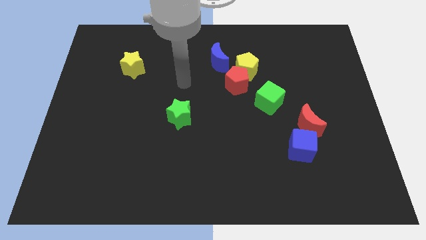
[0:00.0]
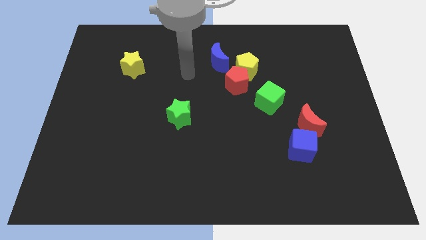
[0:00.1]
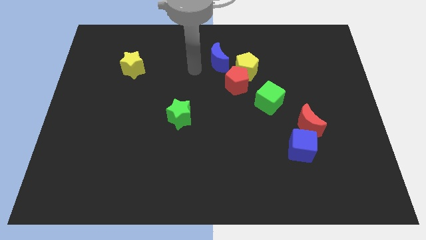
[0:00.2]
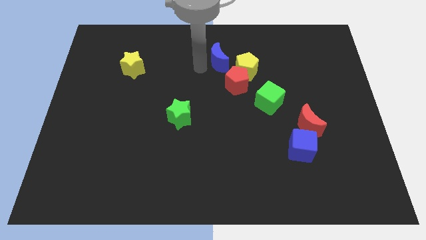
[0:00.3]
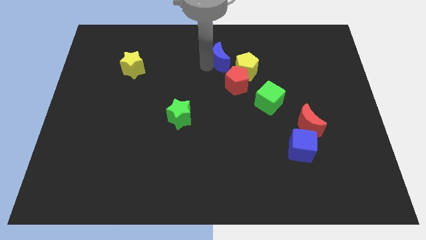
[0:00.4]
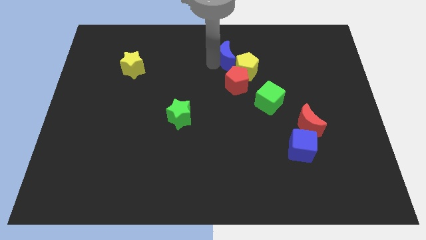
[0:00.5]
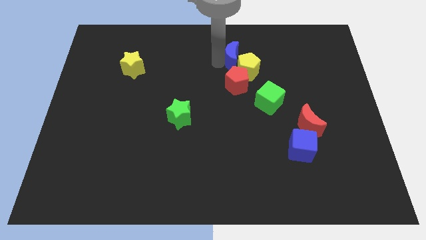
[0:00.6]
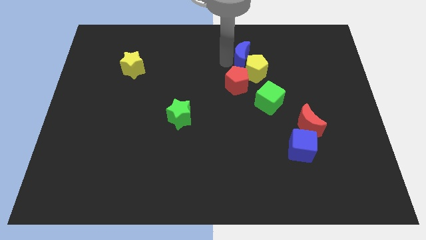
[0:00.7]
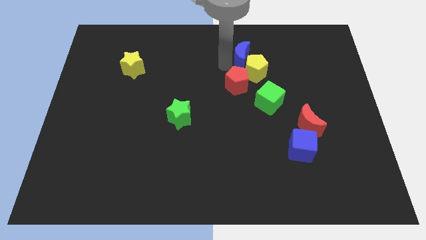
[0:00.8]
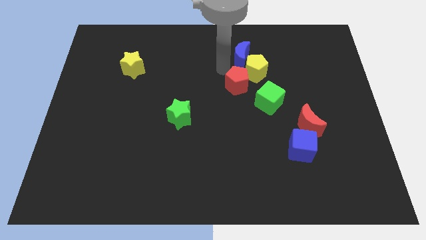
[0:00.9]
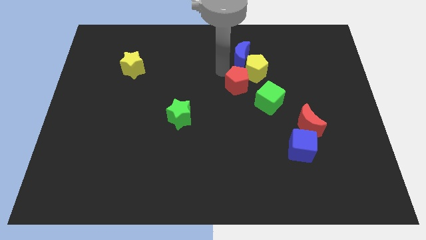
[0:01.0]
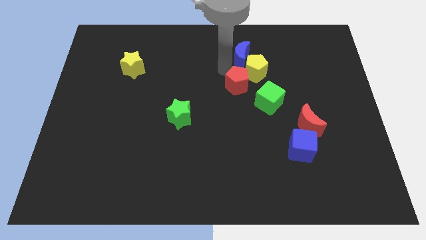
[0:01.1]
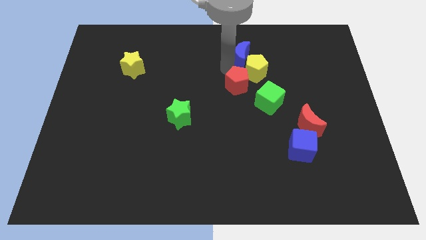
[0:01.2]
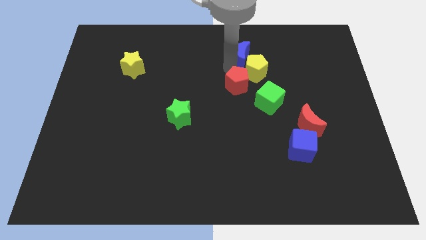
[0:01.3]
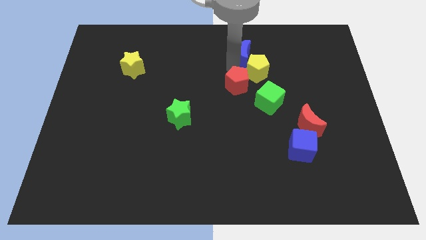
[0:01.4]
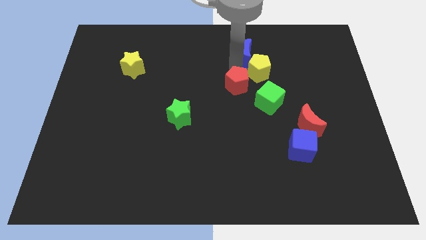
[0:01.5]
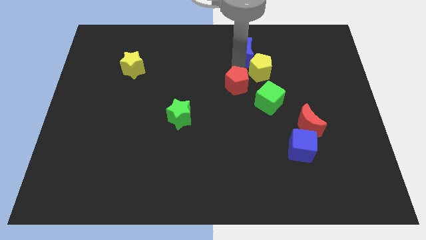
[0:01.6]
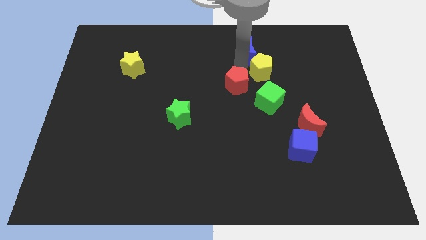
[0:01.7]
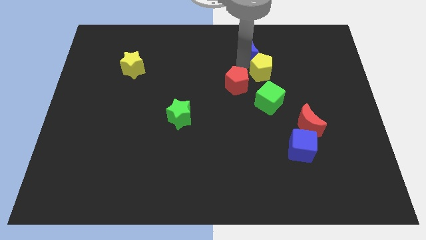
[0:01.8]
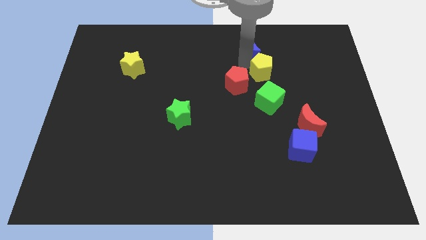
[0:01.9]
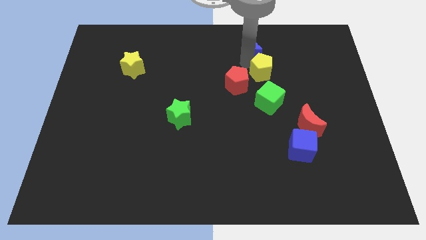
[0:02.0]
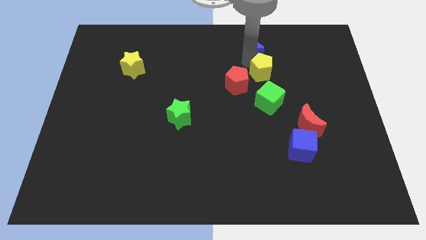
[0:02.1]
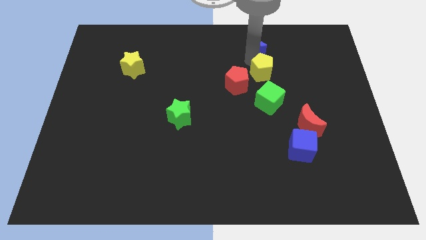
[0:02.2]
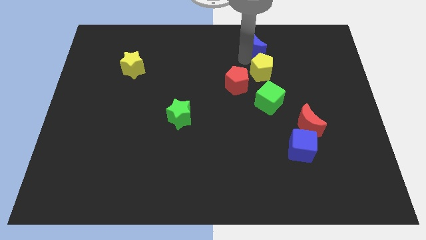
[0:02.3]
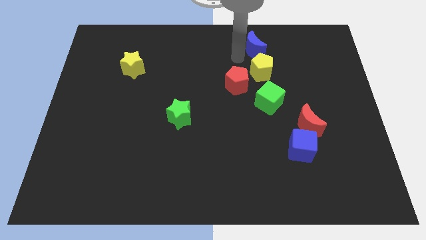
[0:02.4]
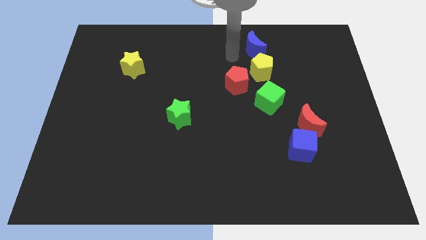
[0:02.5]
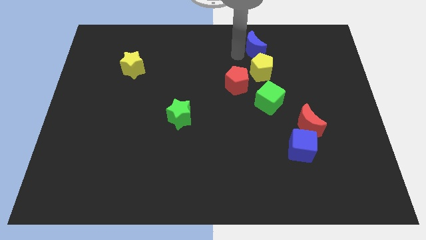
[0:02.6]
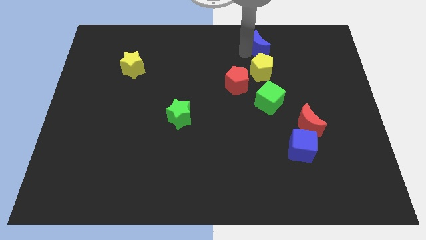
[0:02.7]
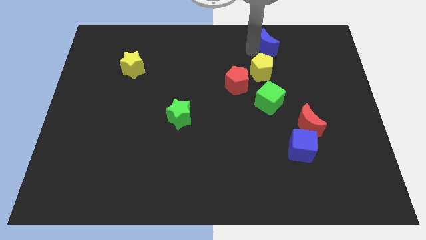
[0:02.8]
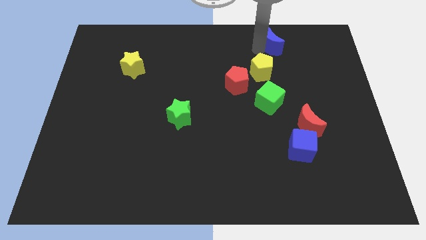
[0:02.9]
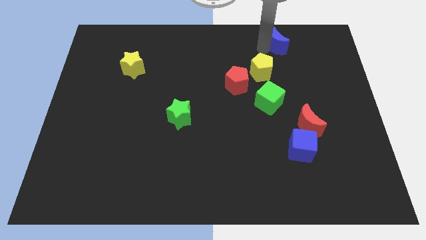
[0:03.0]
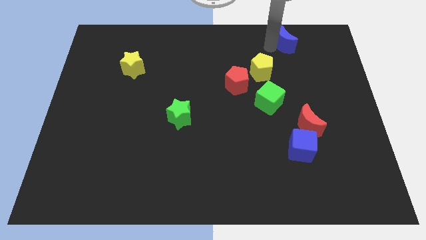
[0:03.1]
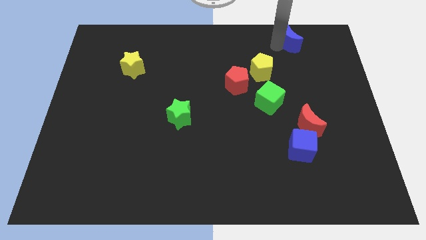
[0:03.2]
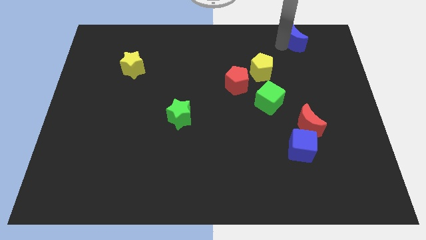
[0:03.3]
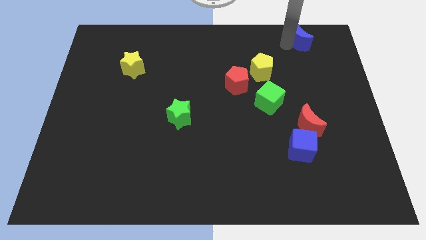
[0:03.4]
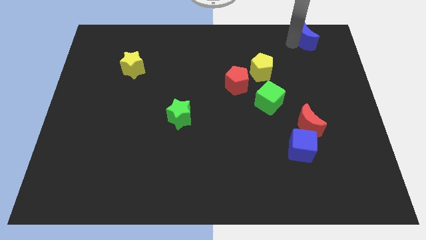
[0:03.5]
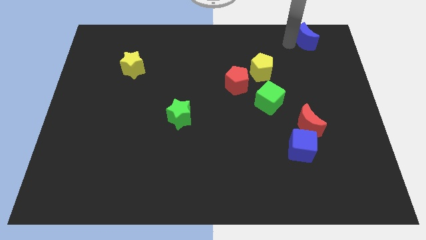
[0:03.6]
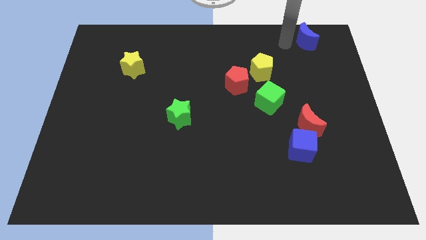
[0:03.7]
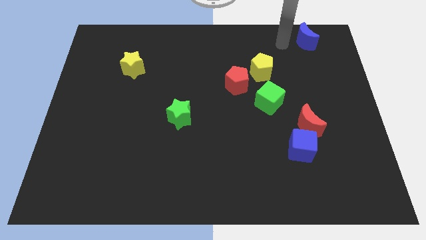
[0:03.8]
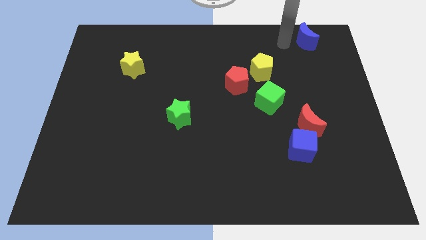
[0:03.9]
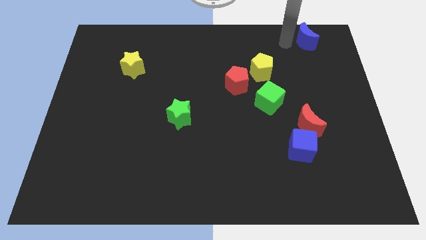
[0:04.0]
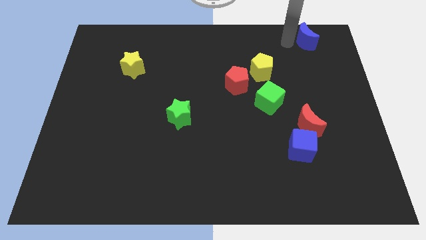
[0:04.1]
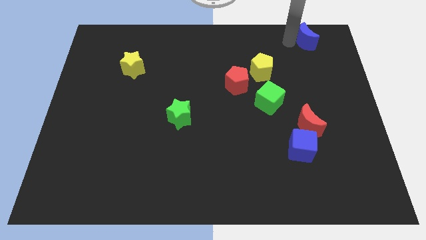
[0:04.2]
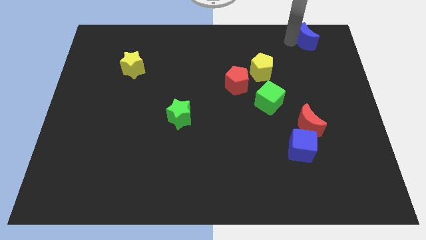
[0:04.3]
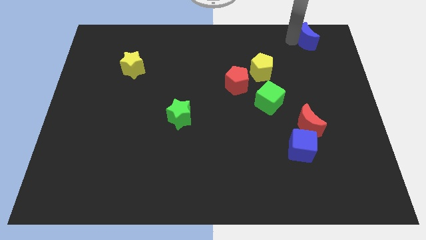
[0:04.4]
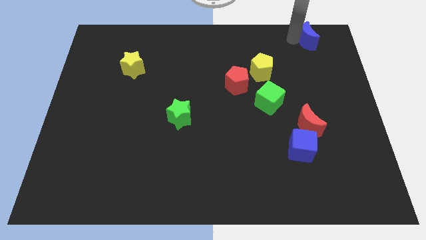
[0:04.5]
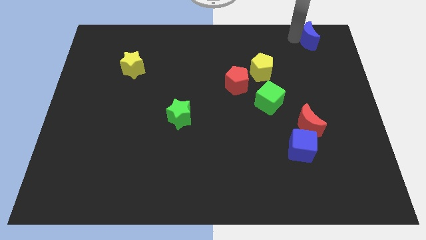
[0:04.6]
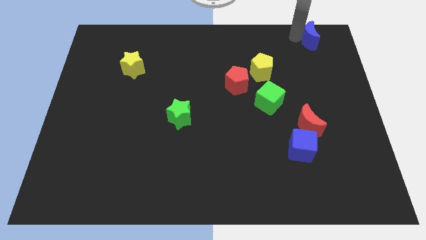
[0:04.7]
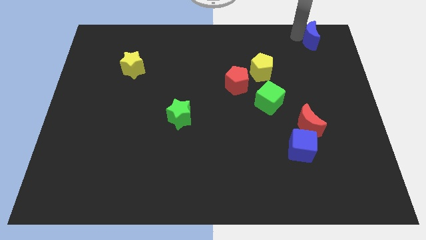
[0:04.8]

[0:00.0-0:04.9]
put the blue moon to the upper right corner

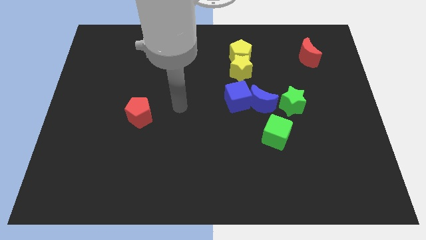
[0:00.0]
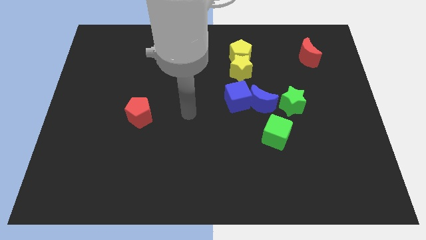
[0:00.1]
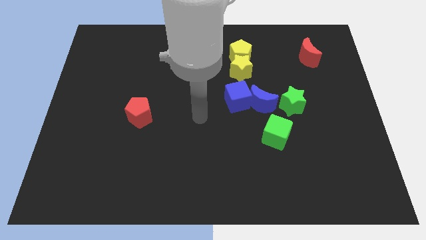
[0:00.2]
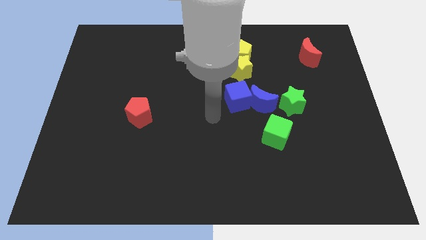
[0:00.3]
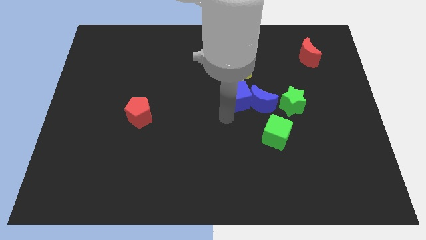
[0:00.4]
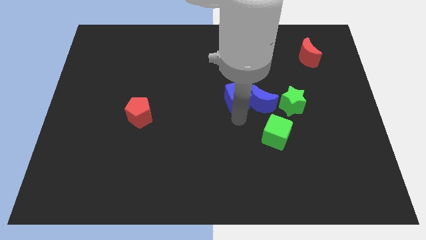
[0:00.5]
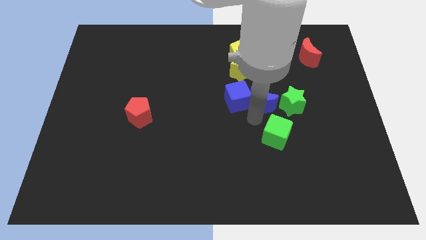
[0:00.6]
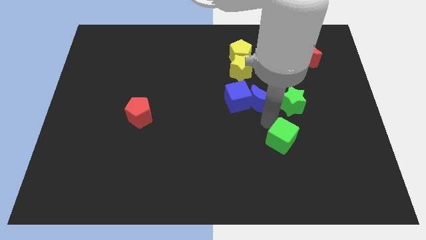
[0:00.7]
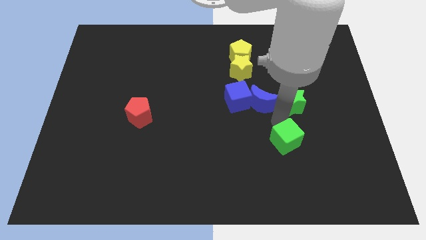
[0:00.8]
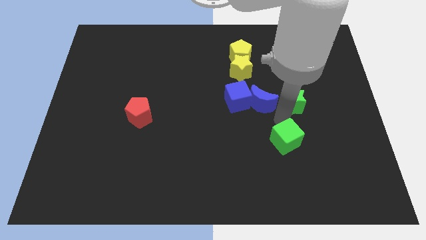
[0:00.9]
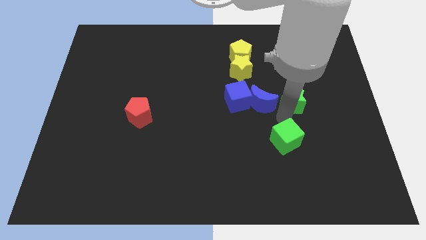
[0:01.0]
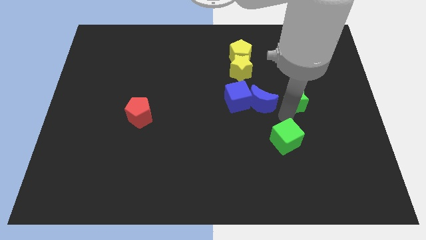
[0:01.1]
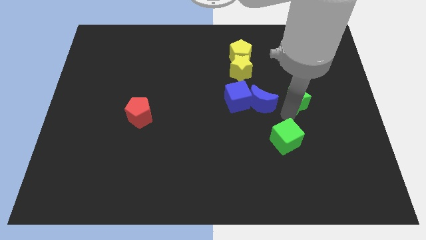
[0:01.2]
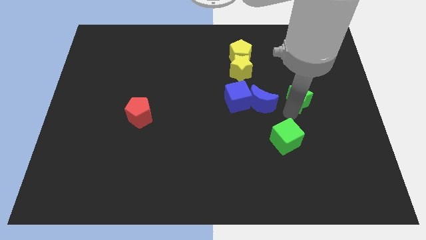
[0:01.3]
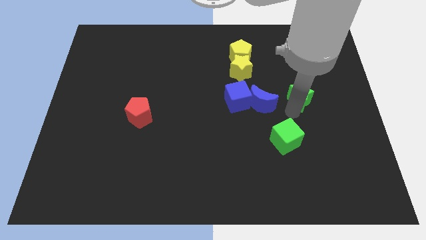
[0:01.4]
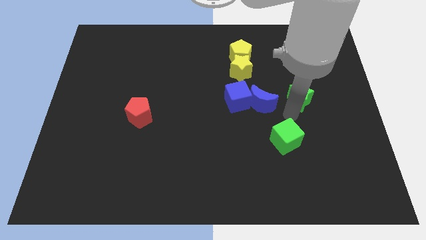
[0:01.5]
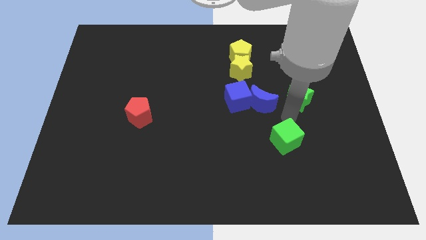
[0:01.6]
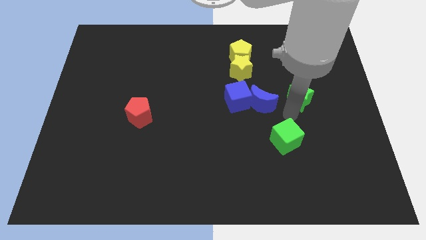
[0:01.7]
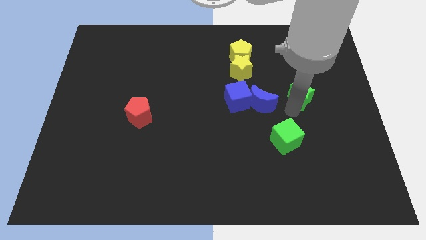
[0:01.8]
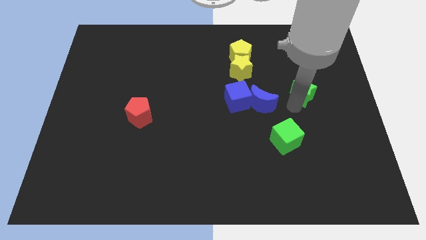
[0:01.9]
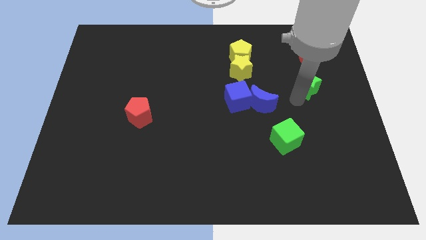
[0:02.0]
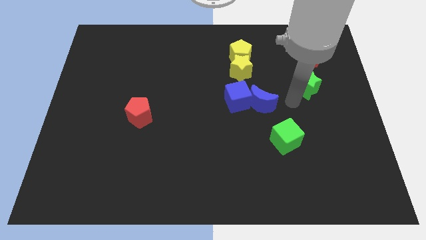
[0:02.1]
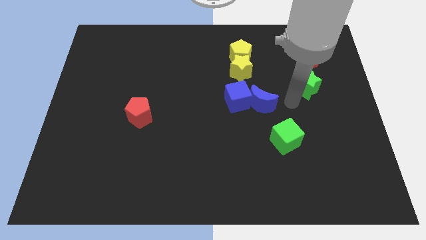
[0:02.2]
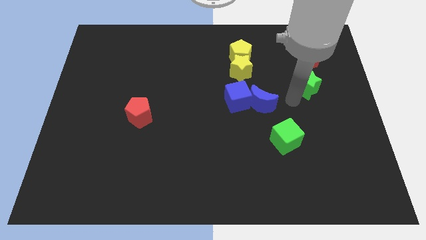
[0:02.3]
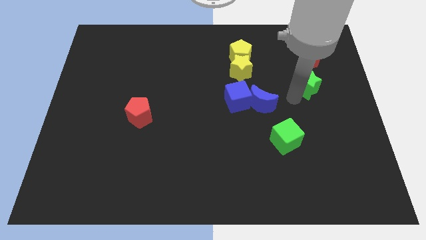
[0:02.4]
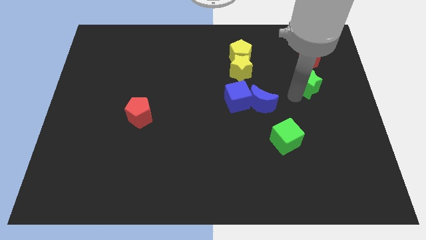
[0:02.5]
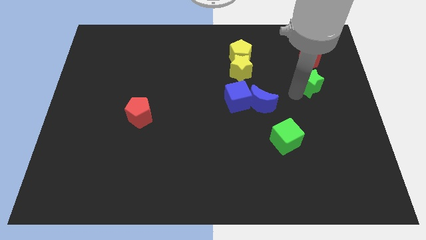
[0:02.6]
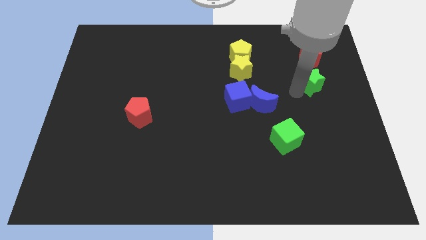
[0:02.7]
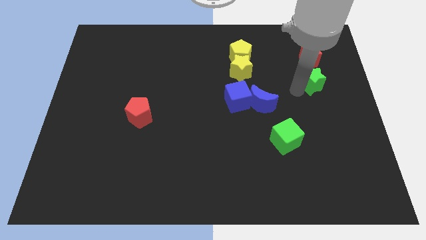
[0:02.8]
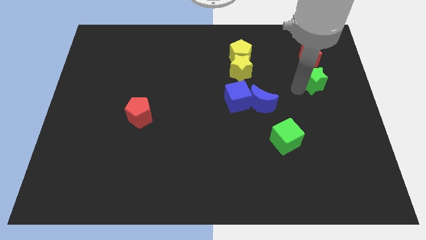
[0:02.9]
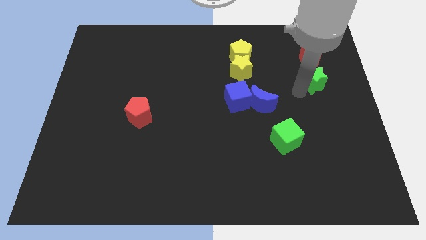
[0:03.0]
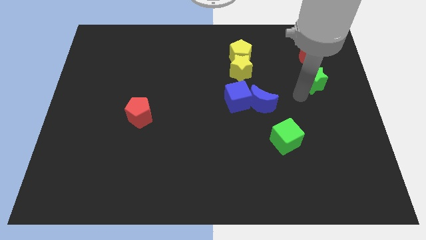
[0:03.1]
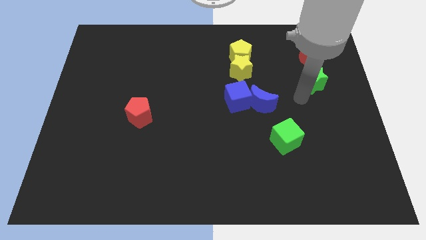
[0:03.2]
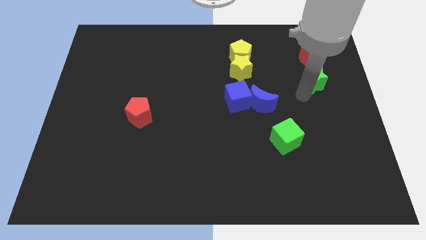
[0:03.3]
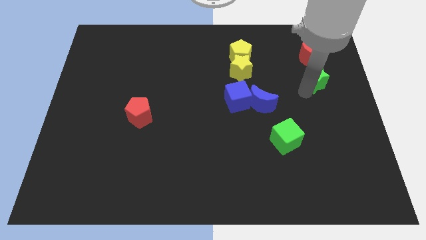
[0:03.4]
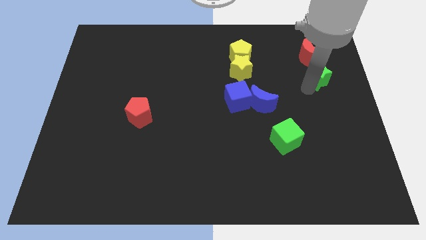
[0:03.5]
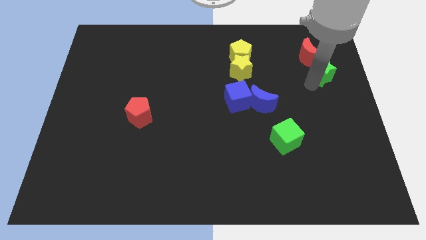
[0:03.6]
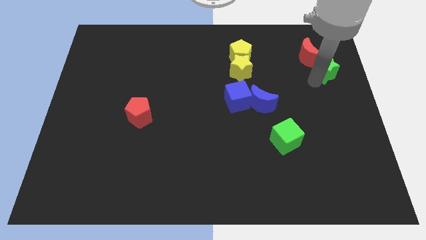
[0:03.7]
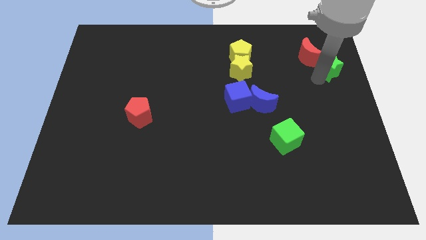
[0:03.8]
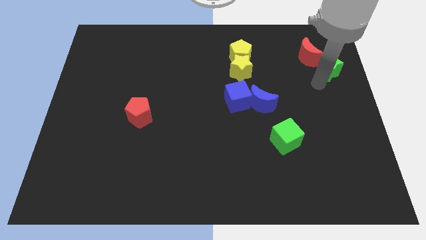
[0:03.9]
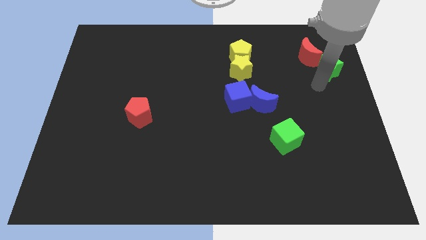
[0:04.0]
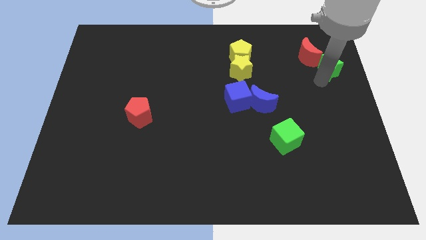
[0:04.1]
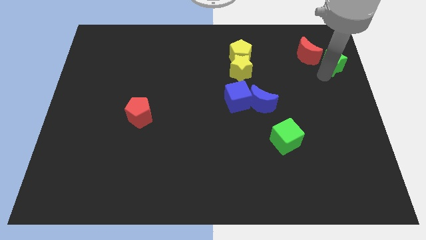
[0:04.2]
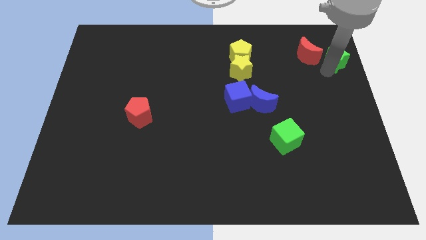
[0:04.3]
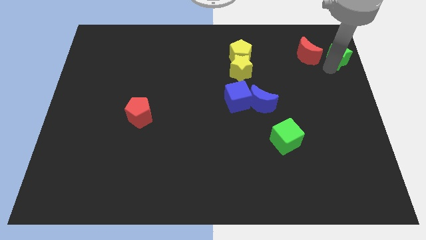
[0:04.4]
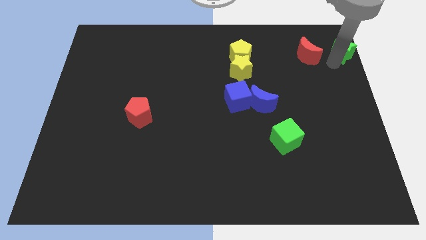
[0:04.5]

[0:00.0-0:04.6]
push the green star to the top right
